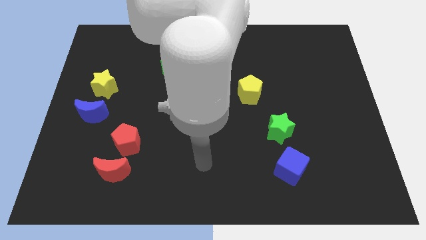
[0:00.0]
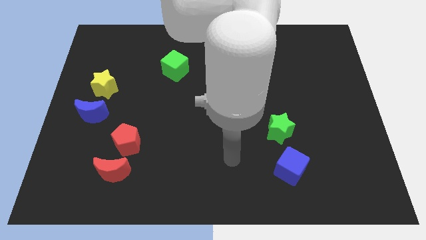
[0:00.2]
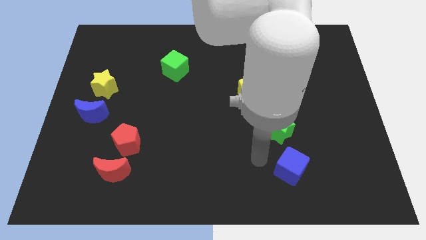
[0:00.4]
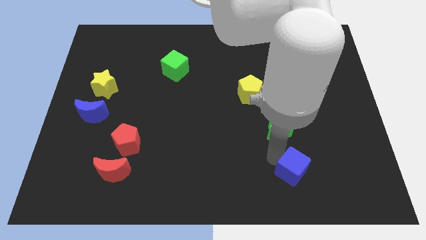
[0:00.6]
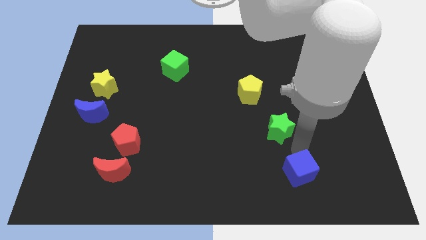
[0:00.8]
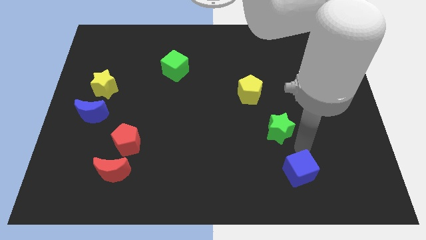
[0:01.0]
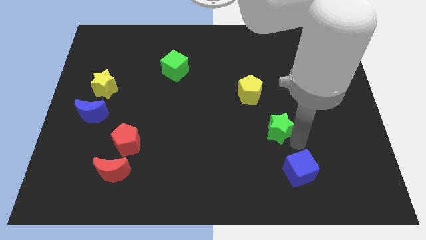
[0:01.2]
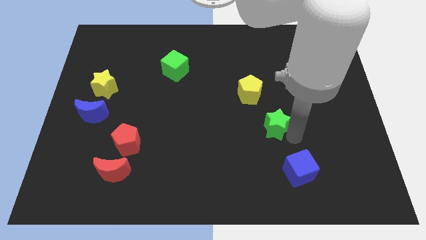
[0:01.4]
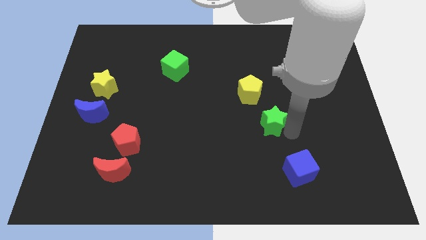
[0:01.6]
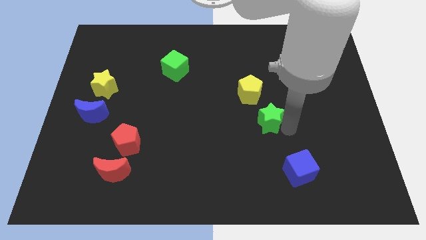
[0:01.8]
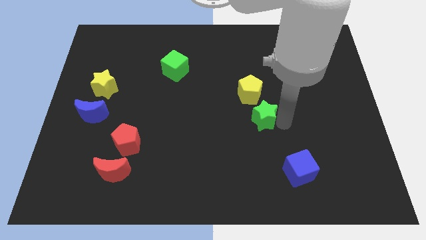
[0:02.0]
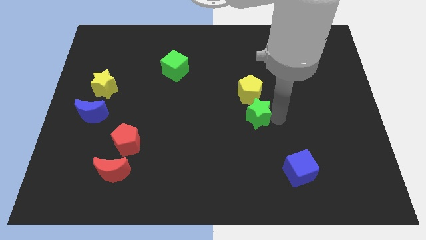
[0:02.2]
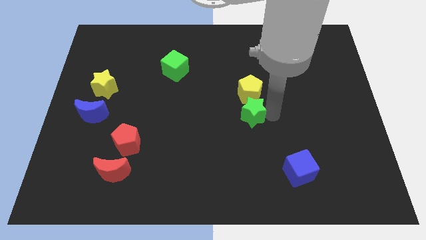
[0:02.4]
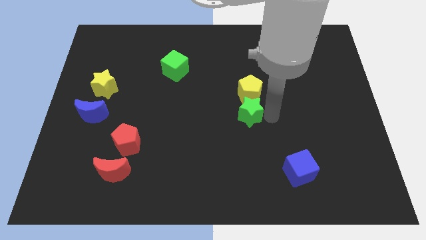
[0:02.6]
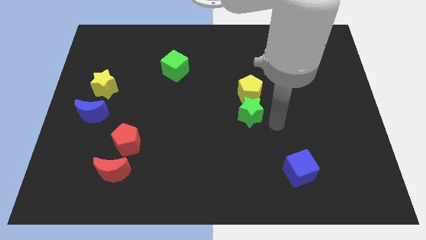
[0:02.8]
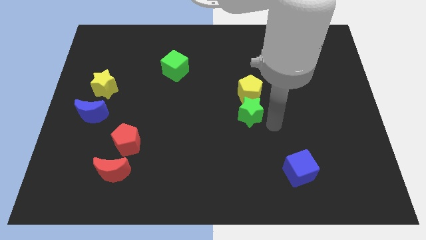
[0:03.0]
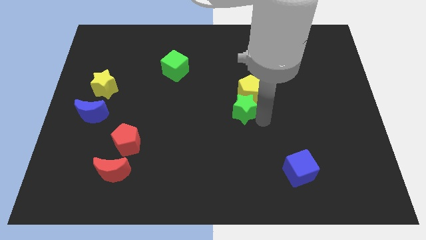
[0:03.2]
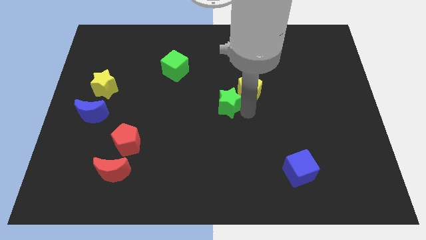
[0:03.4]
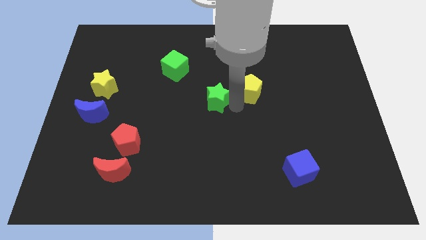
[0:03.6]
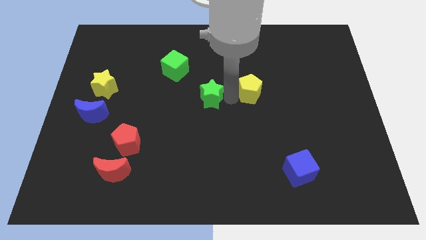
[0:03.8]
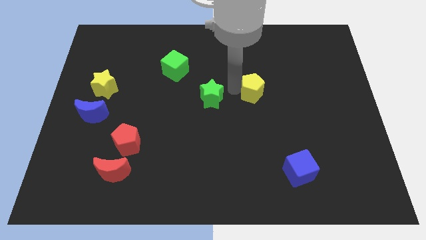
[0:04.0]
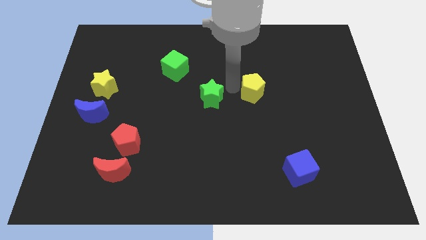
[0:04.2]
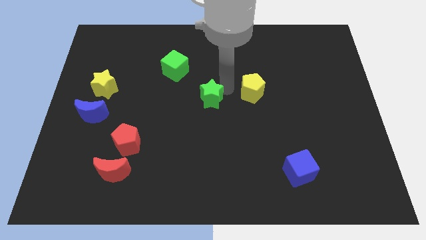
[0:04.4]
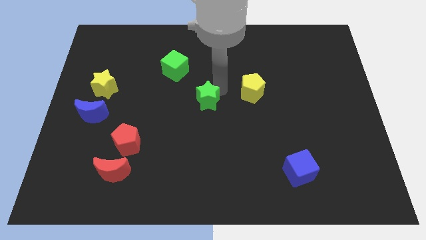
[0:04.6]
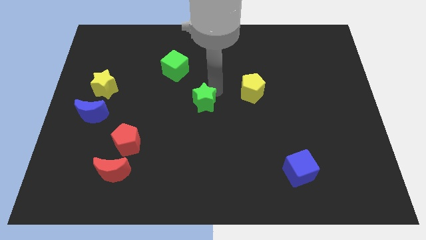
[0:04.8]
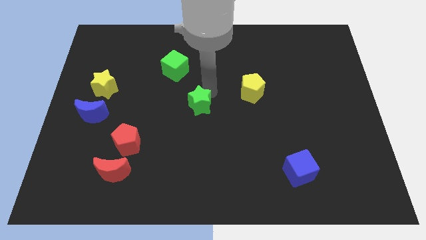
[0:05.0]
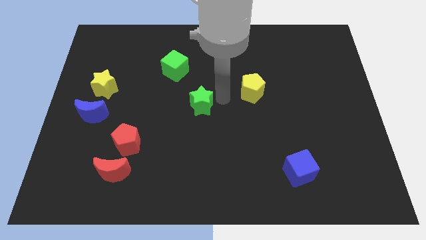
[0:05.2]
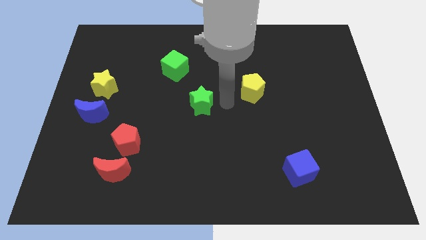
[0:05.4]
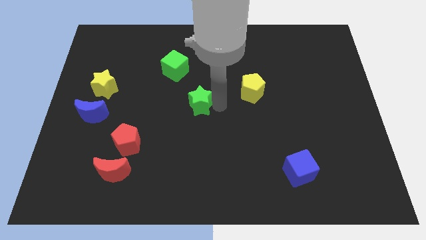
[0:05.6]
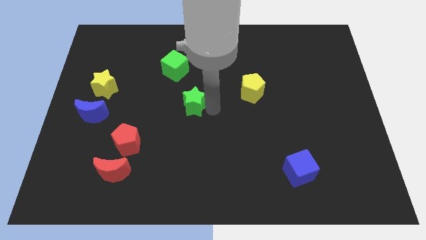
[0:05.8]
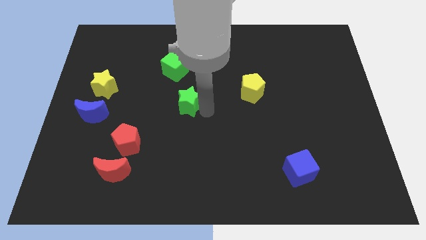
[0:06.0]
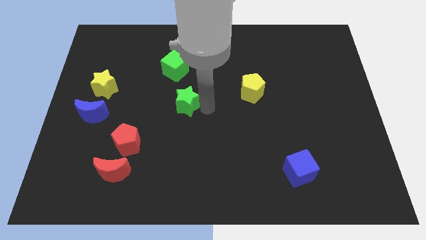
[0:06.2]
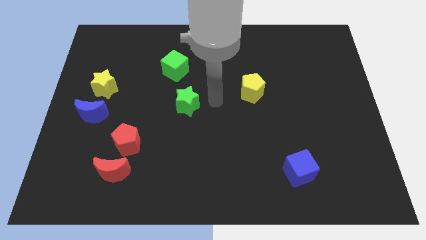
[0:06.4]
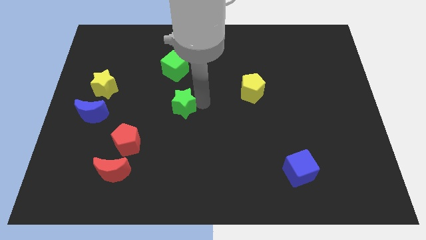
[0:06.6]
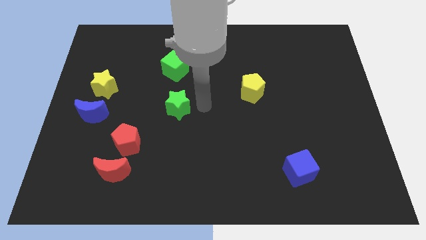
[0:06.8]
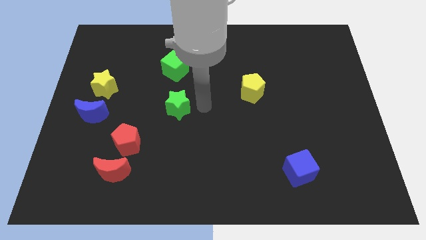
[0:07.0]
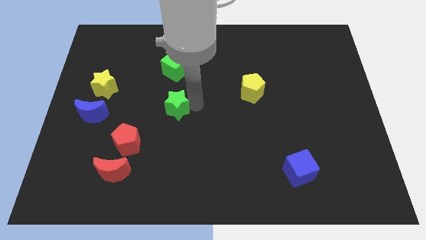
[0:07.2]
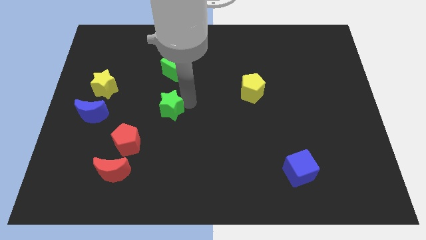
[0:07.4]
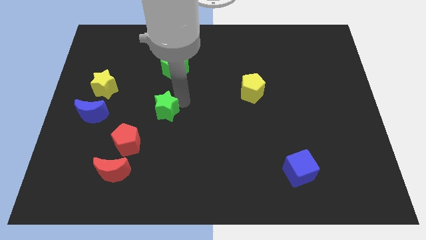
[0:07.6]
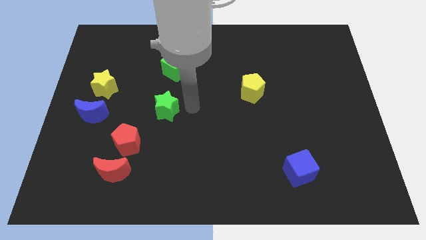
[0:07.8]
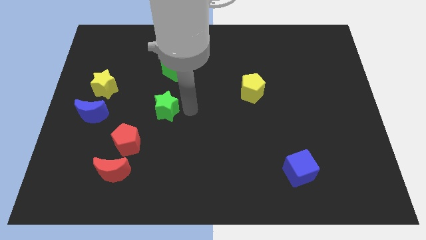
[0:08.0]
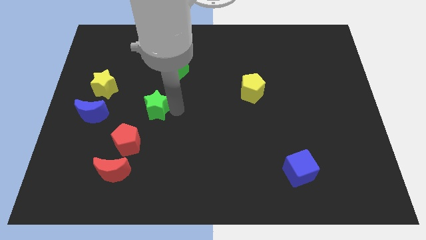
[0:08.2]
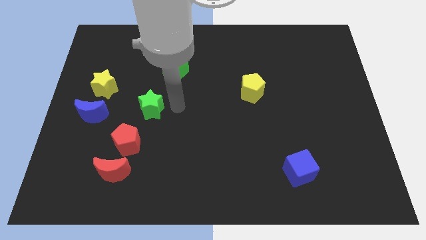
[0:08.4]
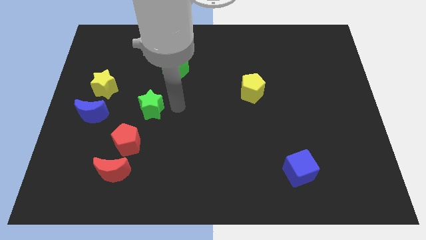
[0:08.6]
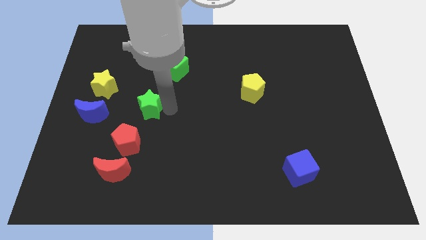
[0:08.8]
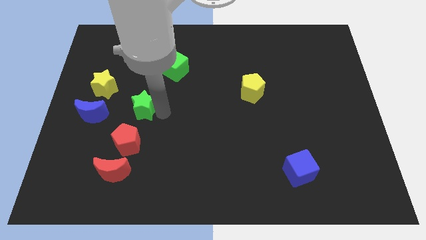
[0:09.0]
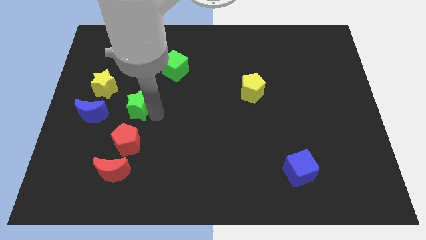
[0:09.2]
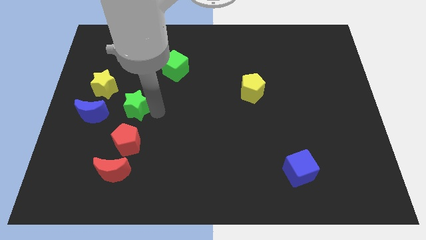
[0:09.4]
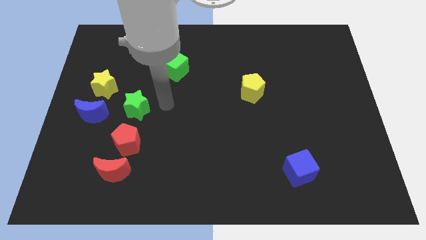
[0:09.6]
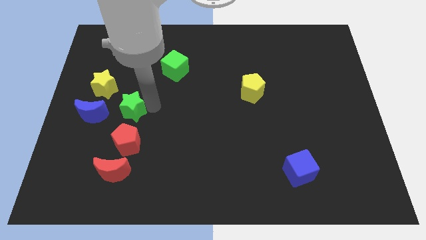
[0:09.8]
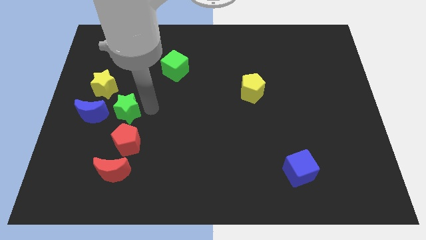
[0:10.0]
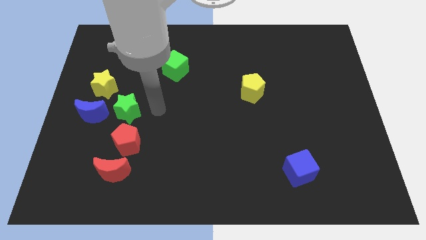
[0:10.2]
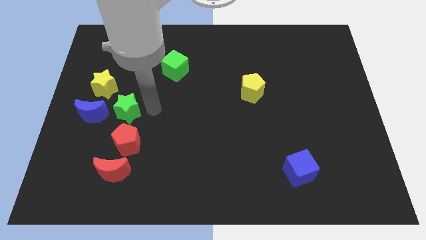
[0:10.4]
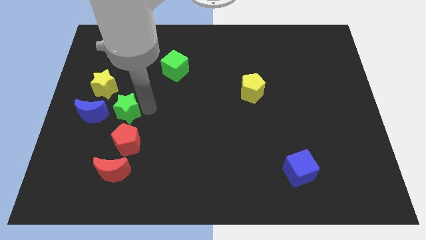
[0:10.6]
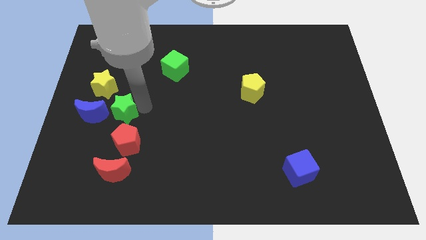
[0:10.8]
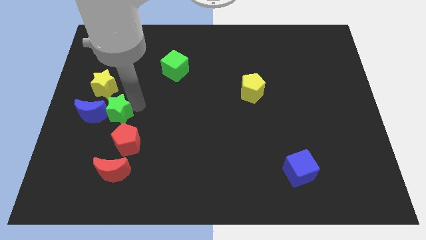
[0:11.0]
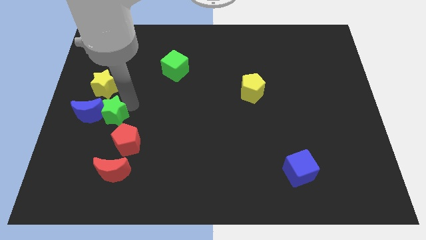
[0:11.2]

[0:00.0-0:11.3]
put the green star towards the blue moon

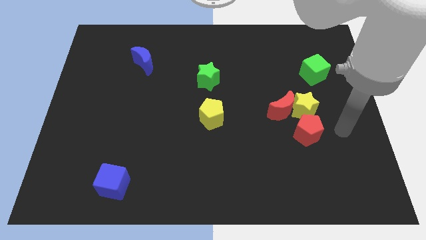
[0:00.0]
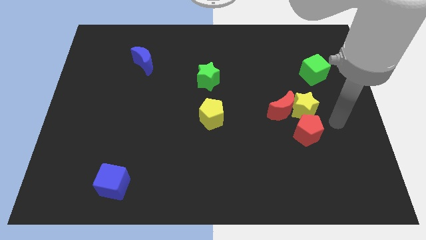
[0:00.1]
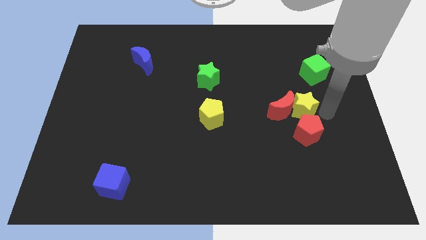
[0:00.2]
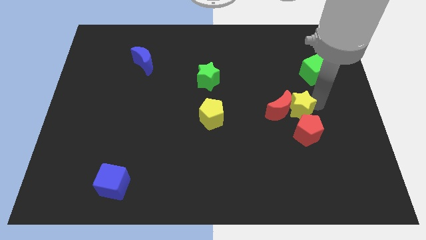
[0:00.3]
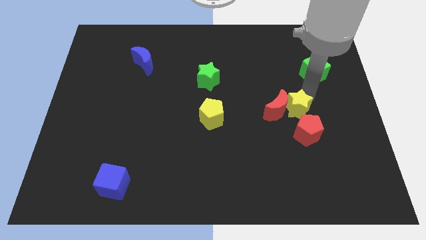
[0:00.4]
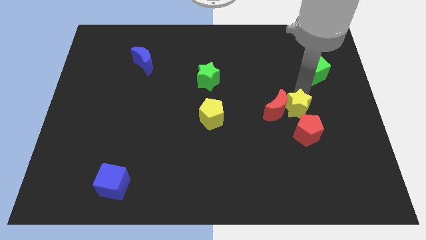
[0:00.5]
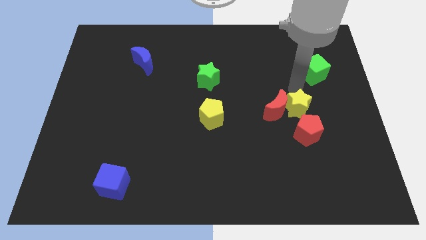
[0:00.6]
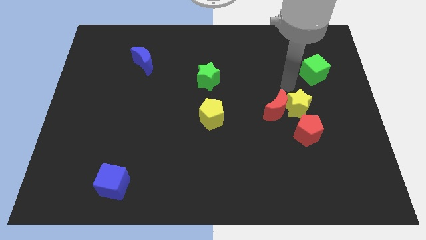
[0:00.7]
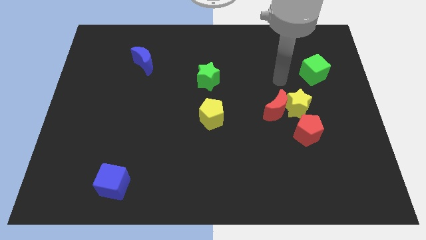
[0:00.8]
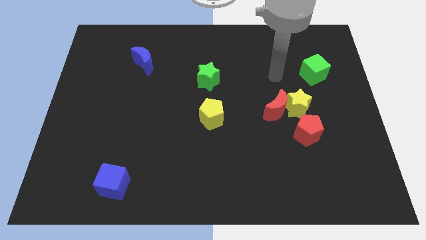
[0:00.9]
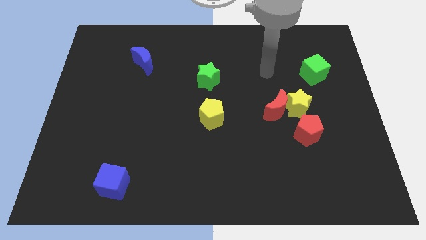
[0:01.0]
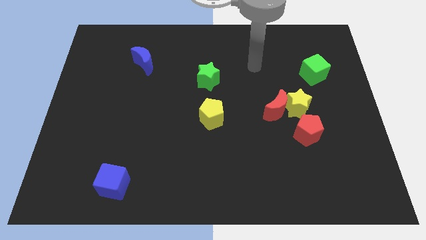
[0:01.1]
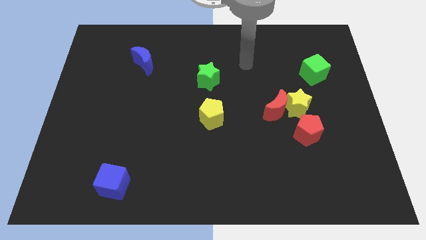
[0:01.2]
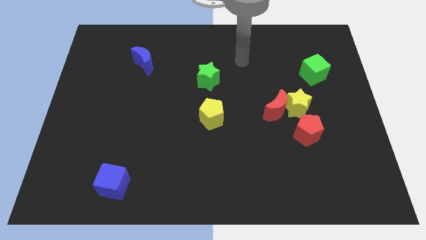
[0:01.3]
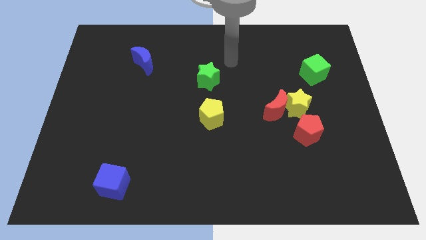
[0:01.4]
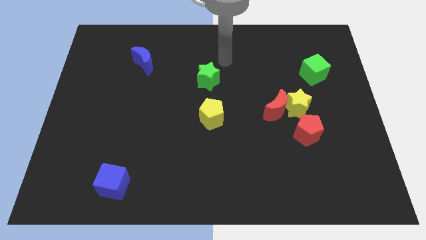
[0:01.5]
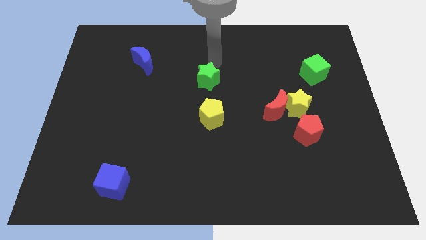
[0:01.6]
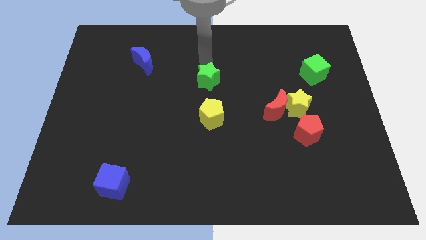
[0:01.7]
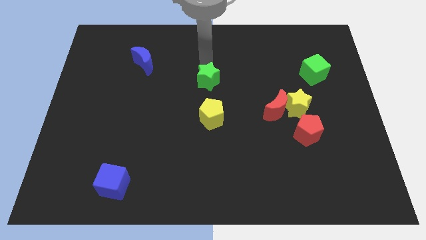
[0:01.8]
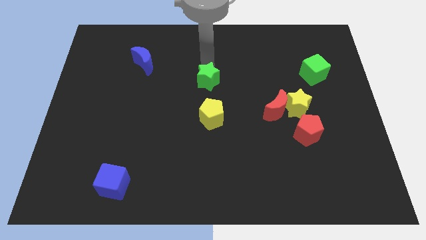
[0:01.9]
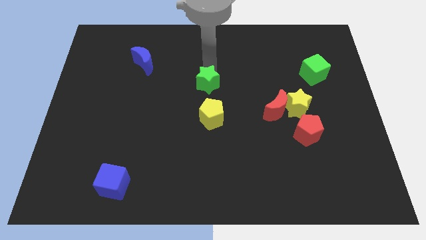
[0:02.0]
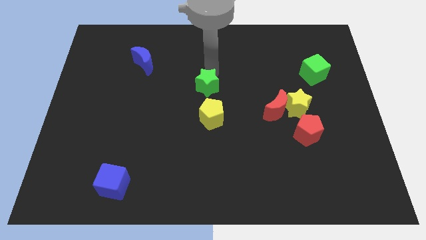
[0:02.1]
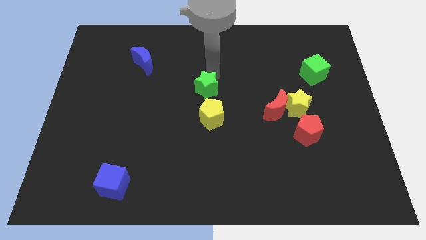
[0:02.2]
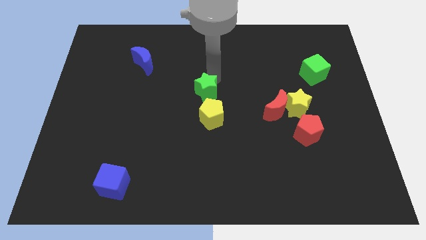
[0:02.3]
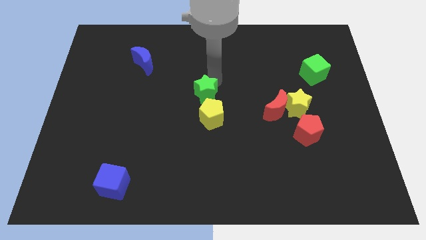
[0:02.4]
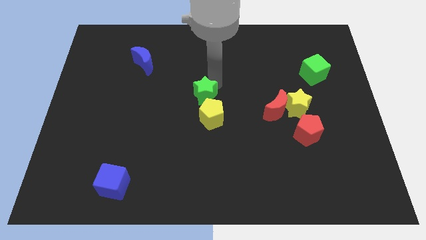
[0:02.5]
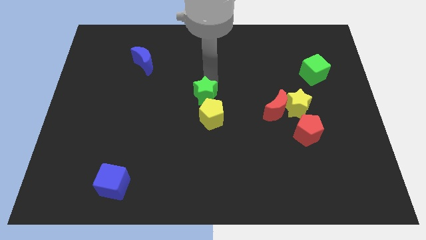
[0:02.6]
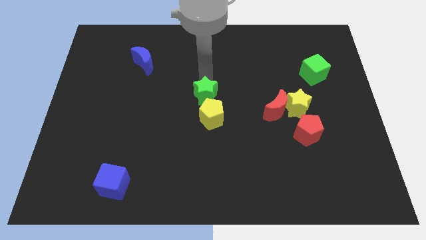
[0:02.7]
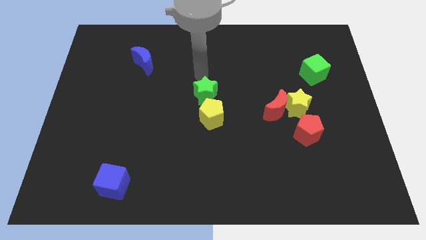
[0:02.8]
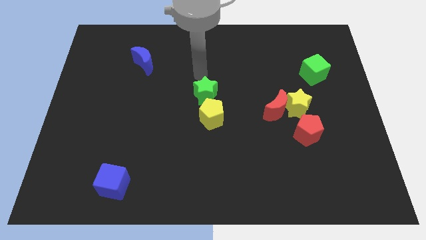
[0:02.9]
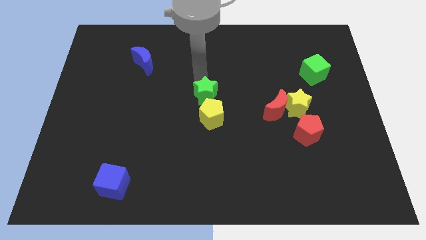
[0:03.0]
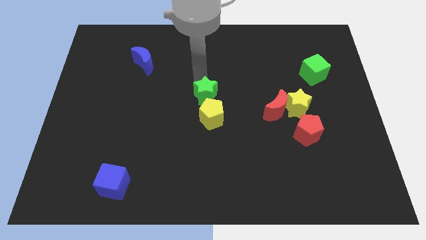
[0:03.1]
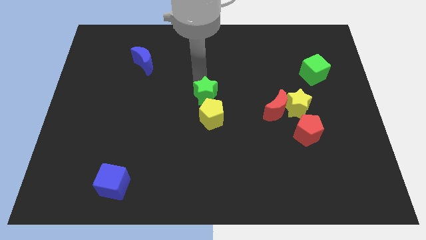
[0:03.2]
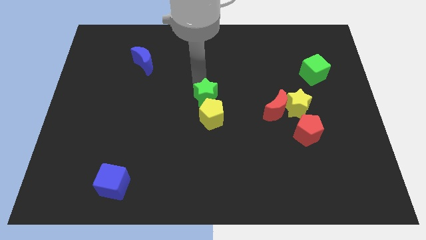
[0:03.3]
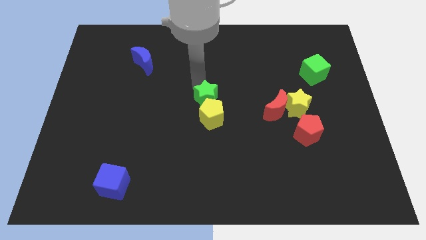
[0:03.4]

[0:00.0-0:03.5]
move the green star next to the yellow pentagon
